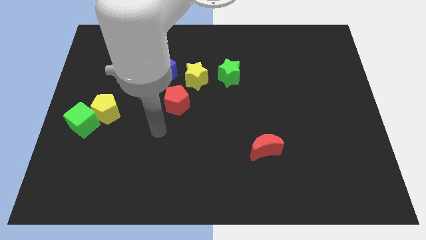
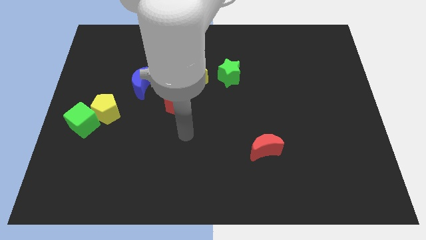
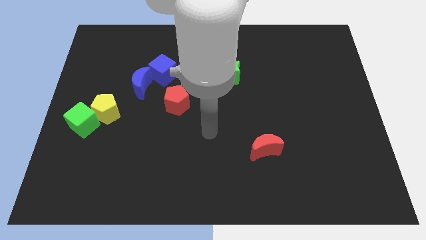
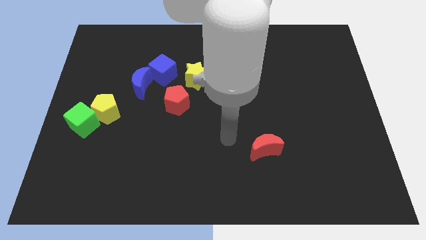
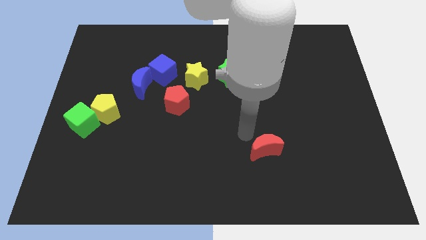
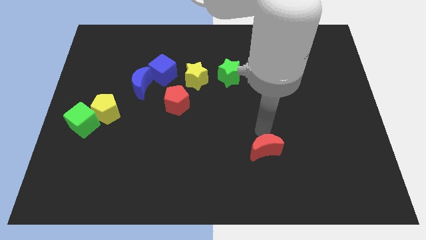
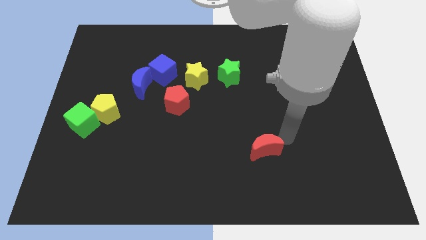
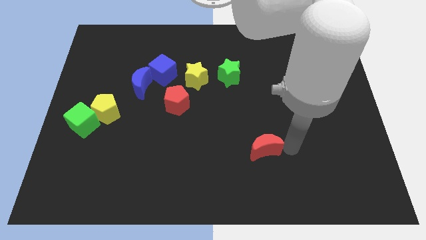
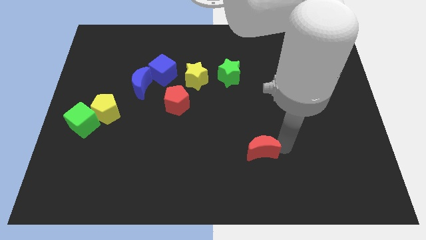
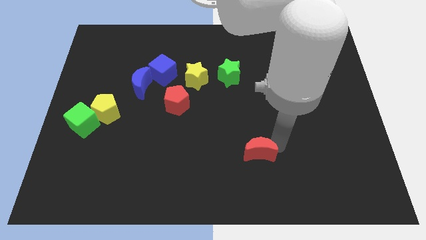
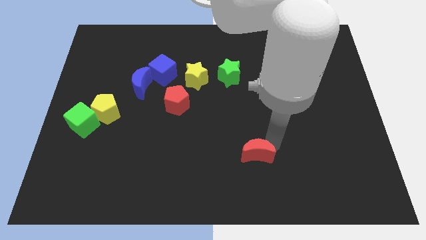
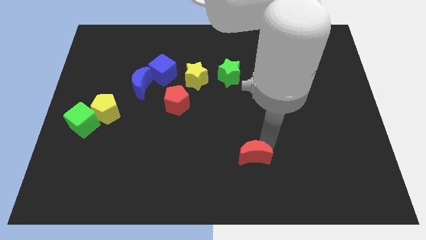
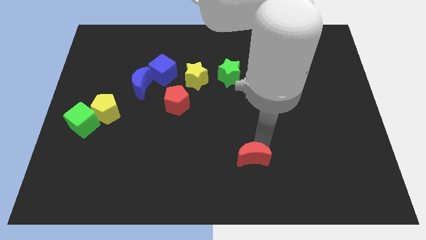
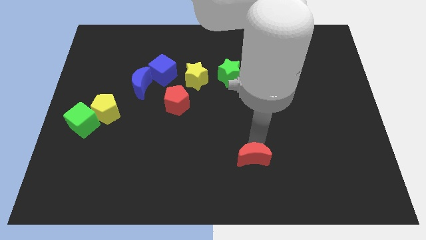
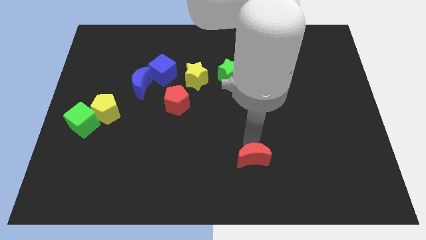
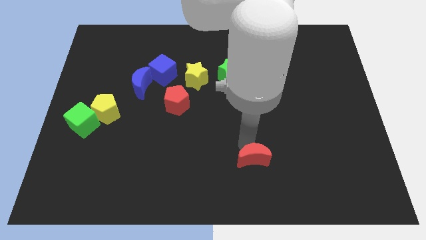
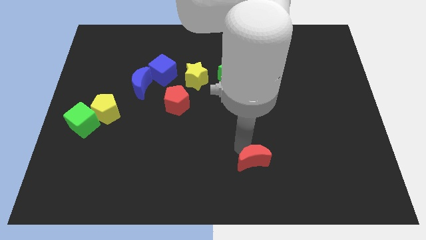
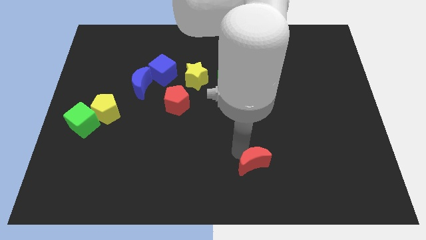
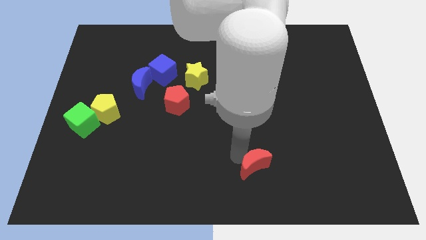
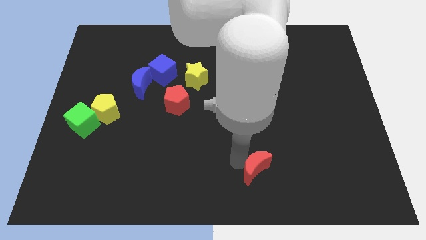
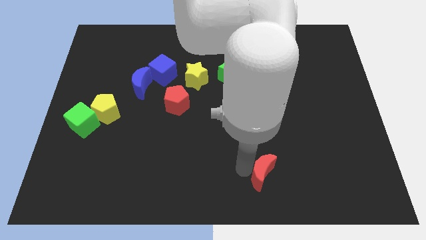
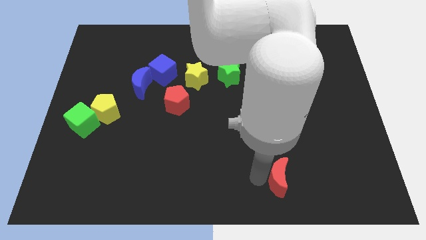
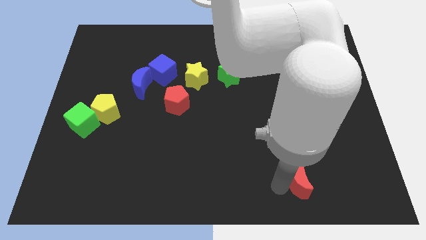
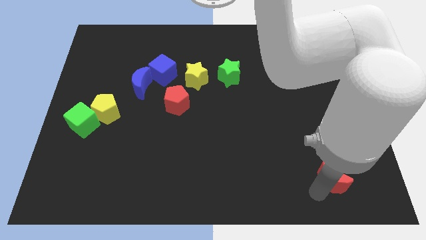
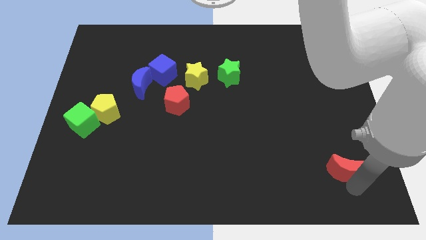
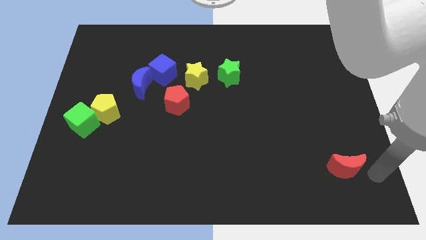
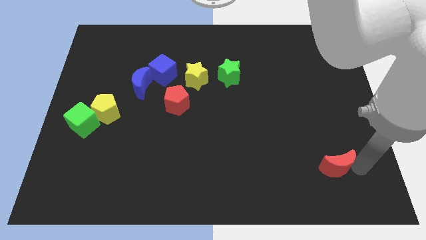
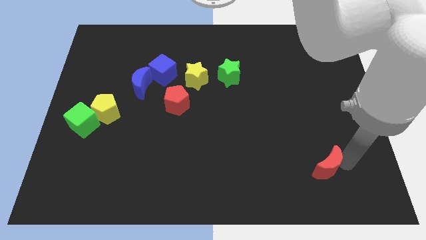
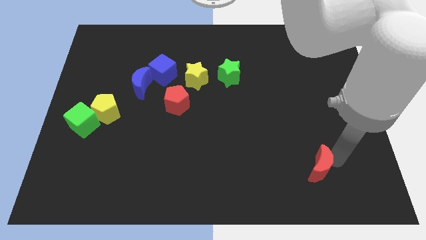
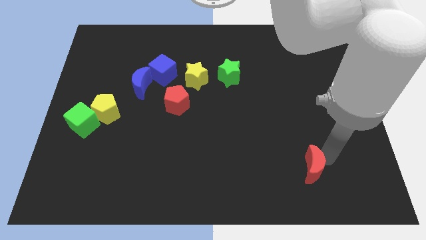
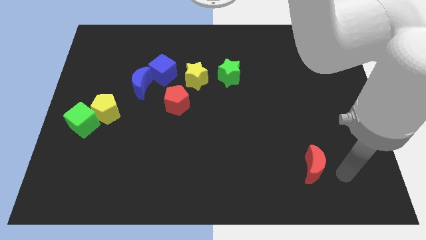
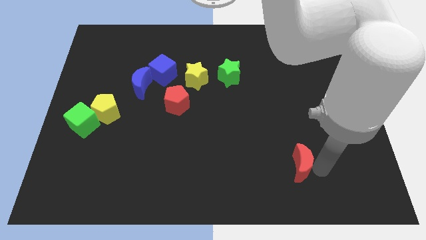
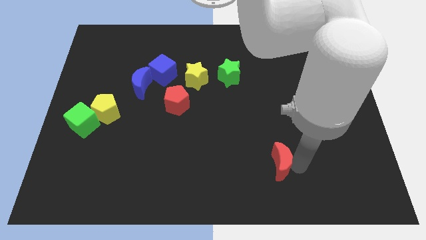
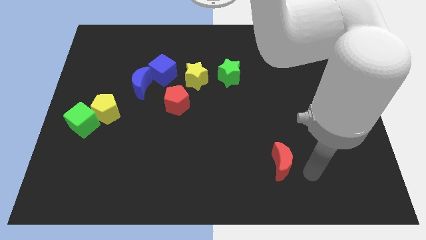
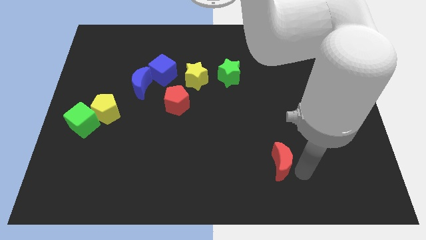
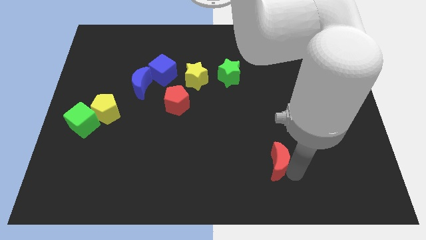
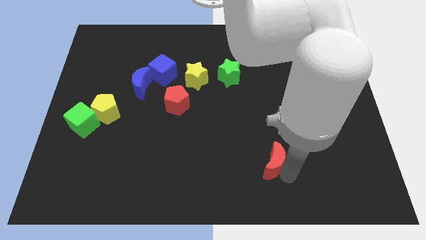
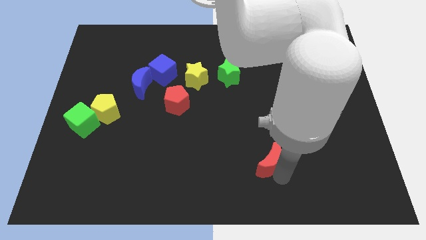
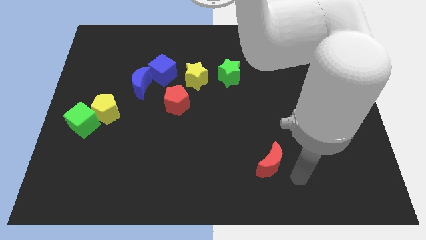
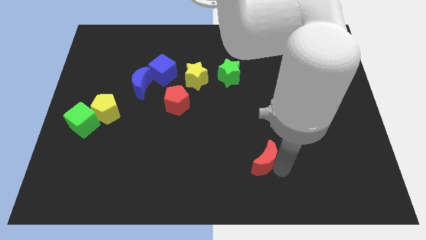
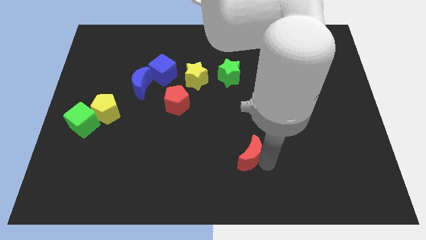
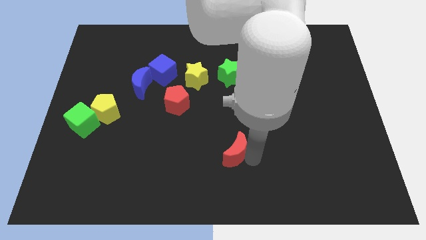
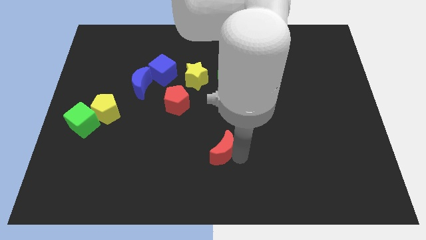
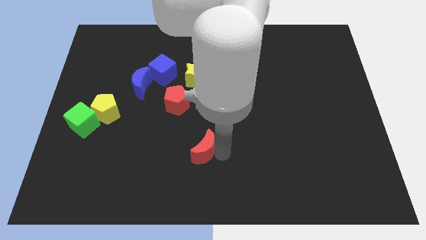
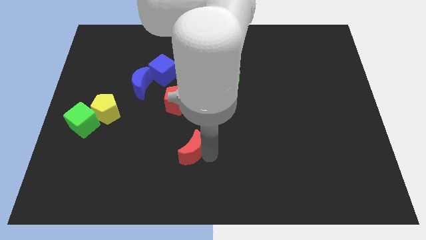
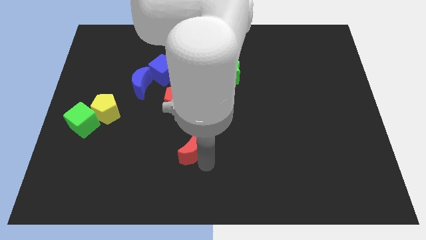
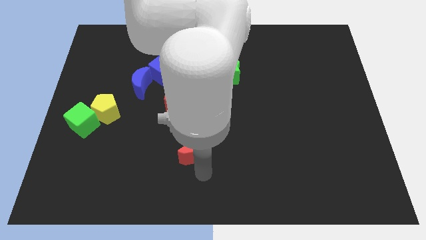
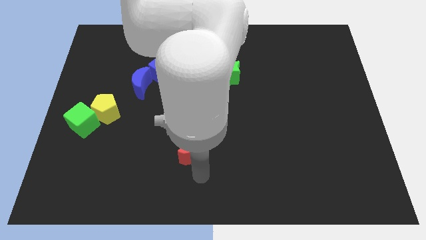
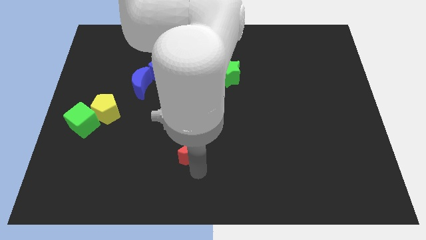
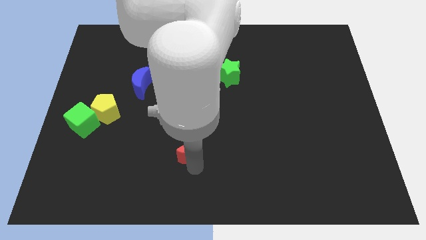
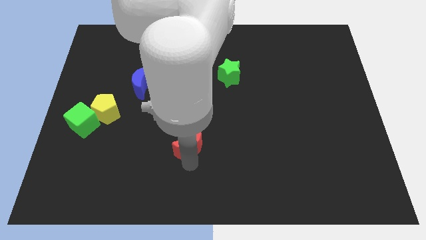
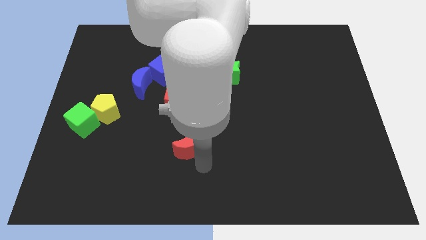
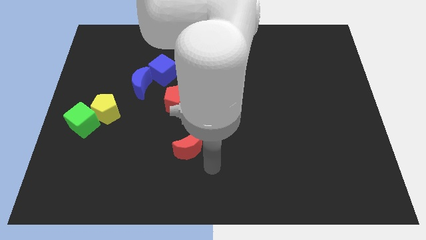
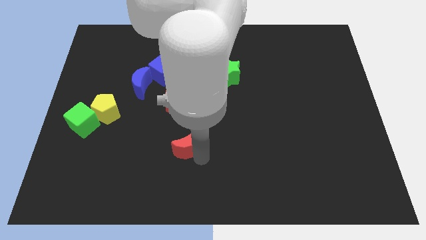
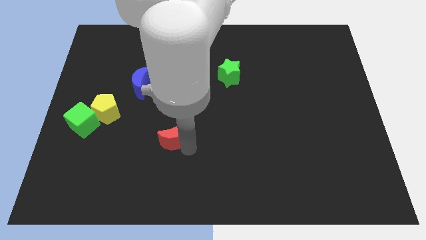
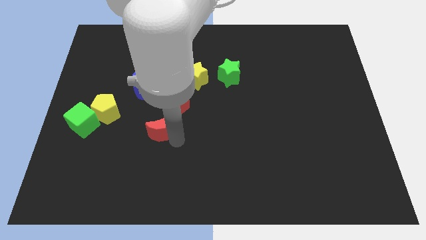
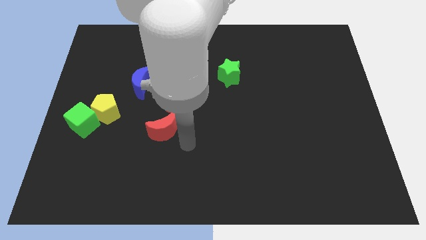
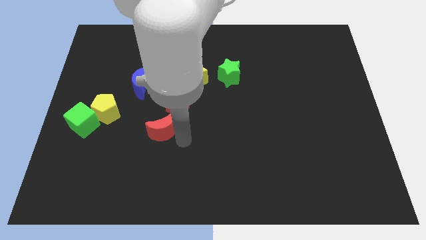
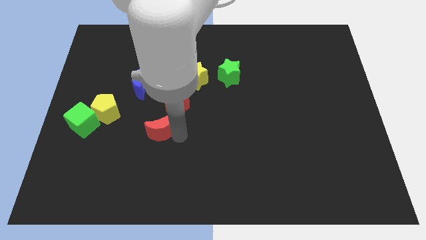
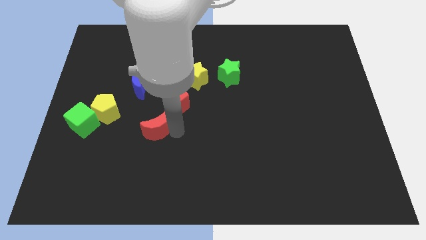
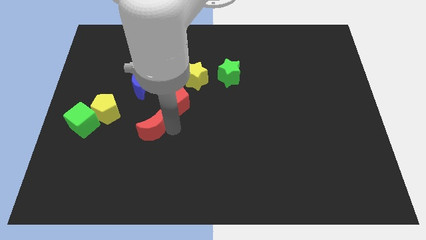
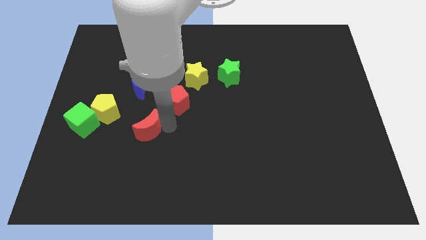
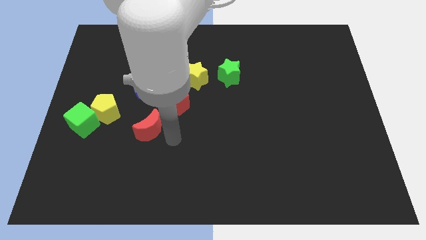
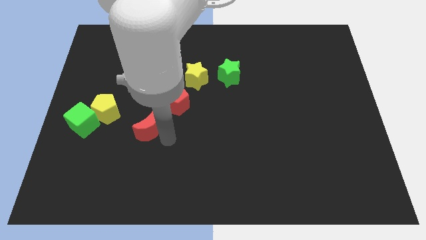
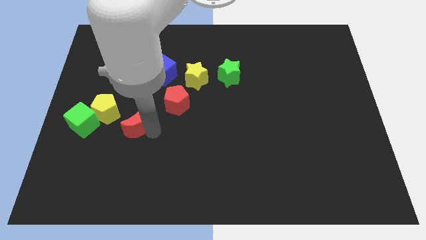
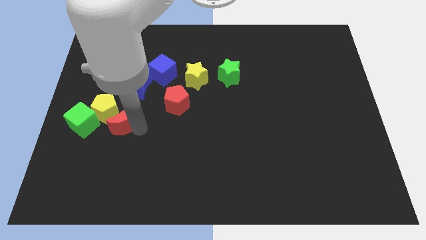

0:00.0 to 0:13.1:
move the red moon towards the yellow pentagon

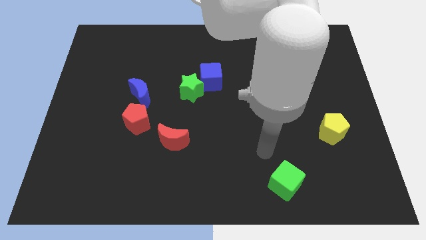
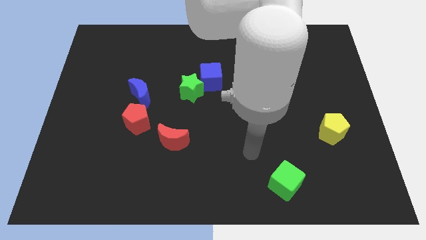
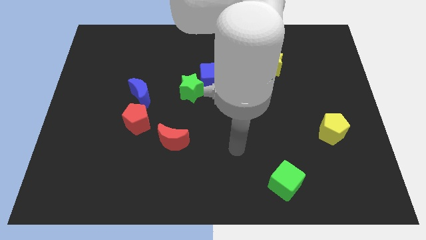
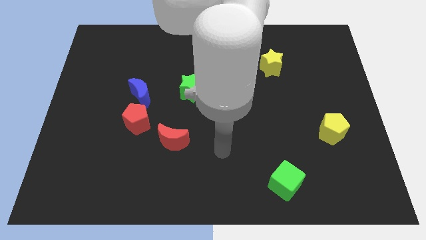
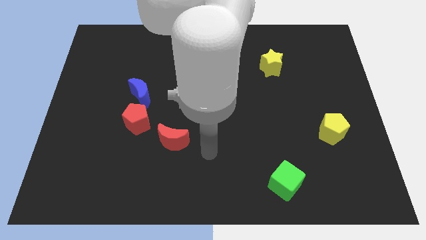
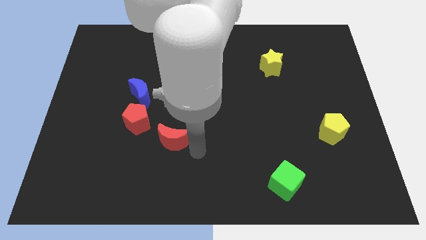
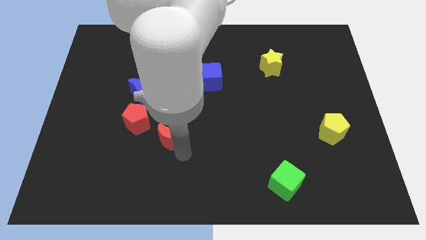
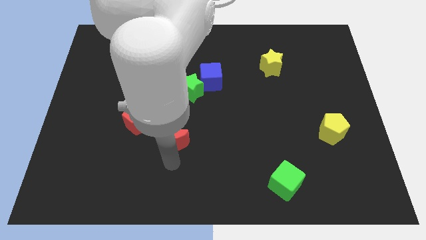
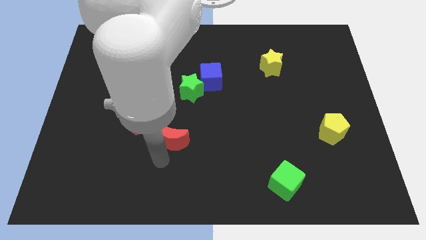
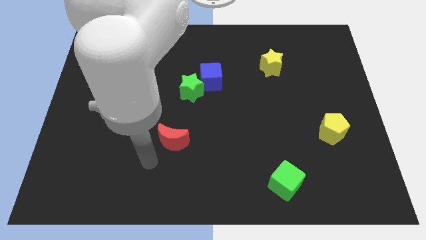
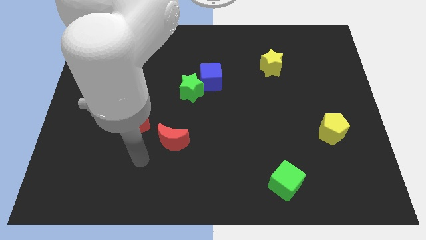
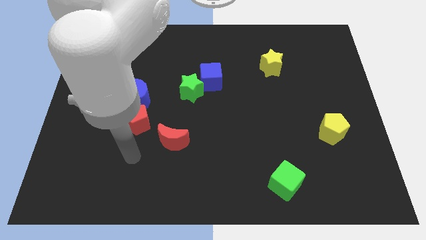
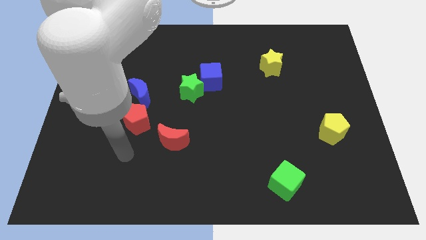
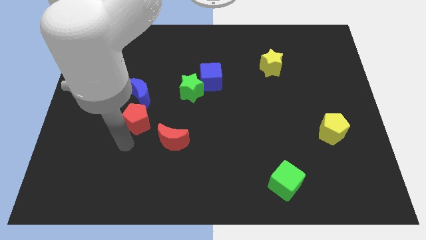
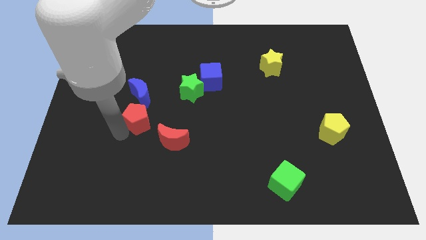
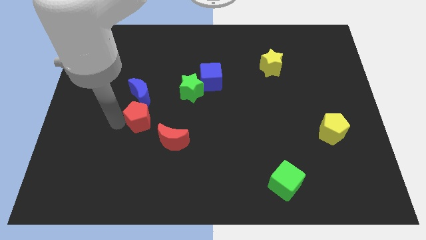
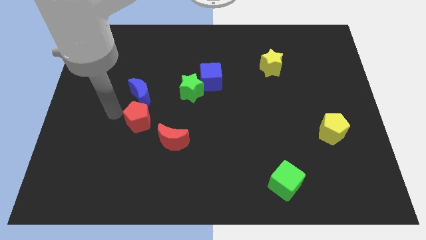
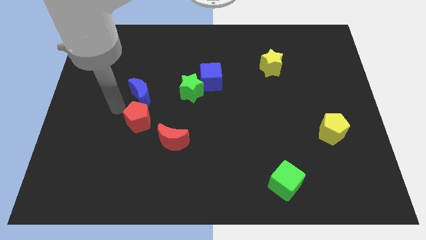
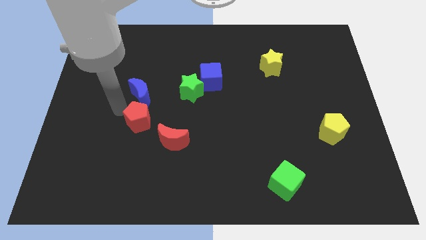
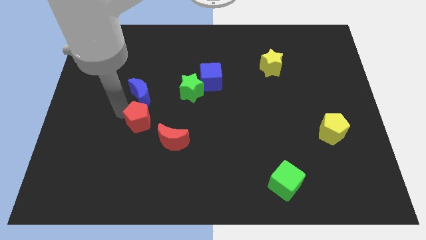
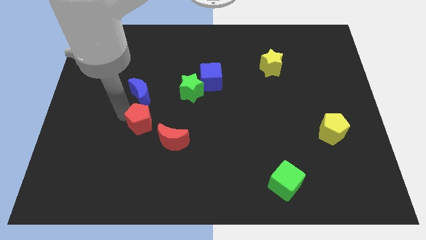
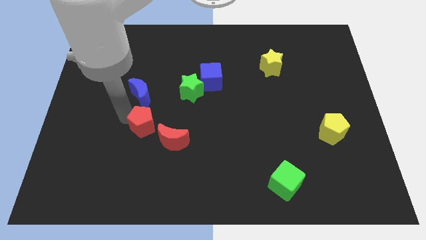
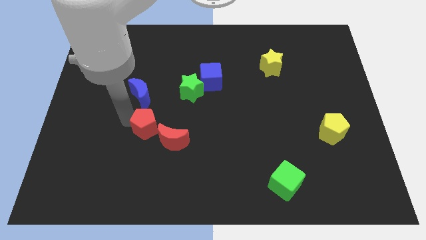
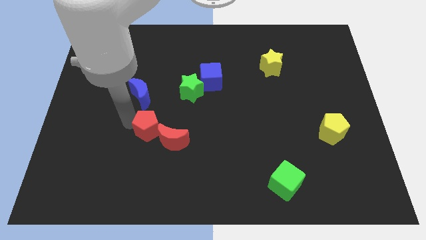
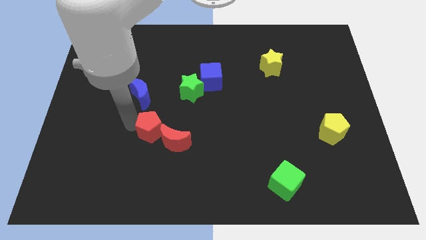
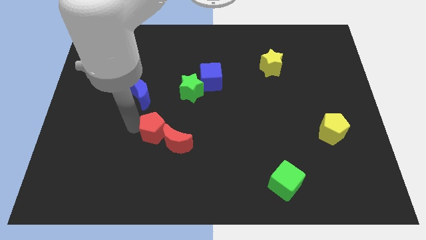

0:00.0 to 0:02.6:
move the red pentagon close to the red moon
